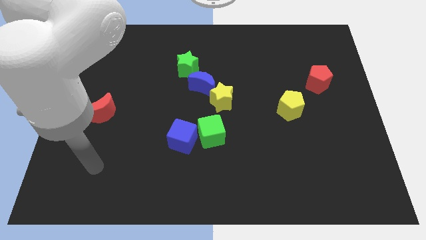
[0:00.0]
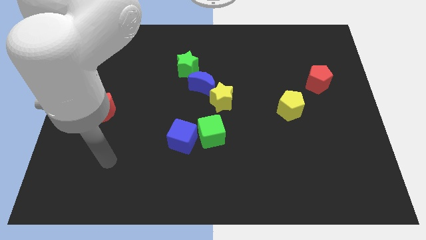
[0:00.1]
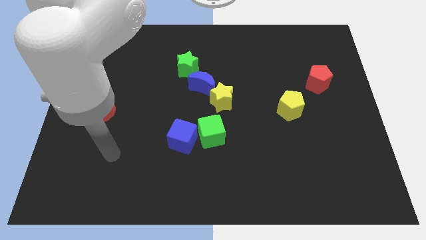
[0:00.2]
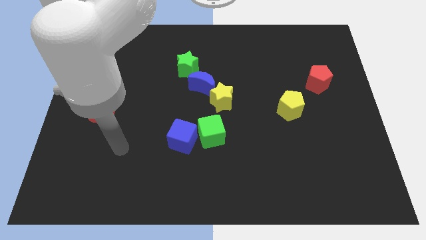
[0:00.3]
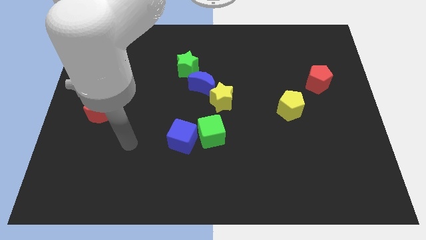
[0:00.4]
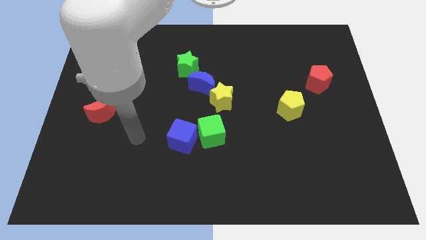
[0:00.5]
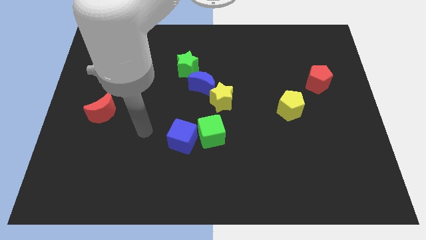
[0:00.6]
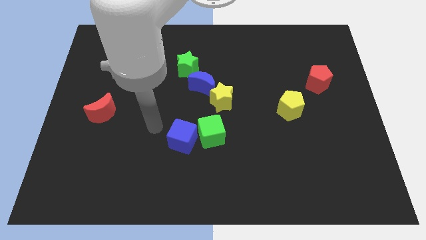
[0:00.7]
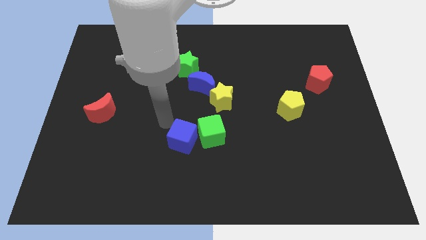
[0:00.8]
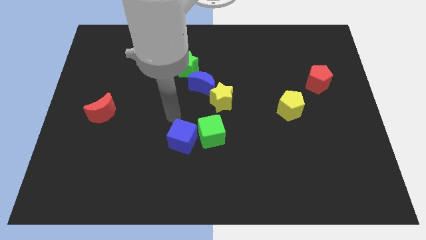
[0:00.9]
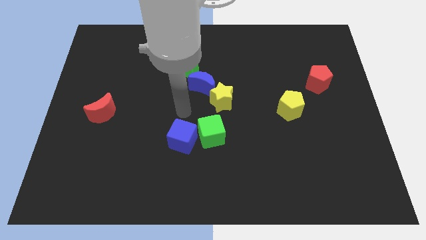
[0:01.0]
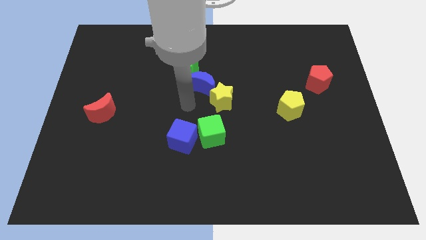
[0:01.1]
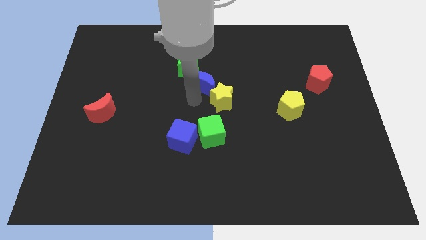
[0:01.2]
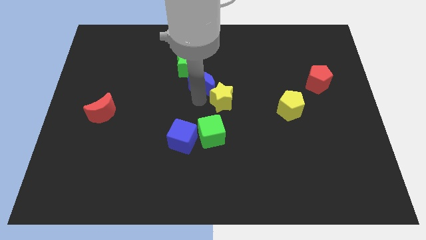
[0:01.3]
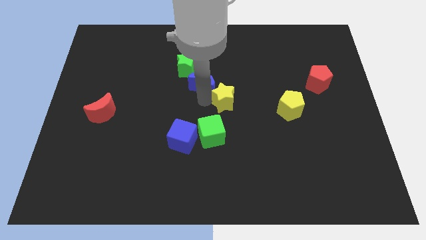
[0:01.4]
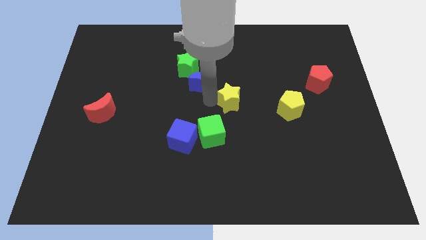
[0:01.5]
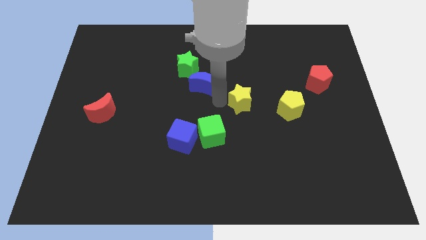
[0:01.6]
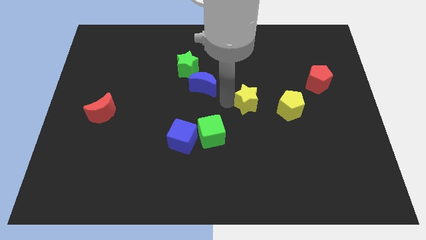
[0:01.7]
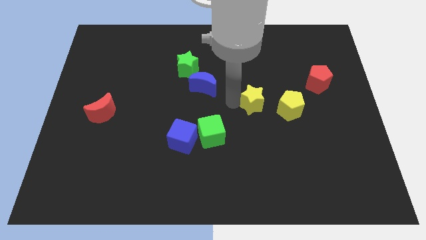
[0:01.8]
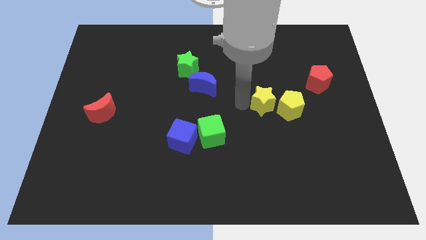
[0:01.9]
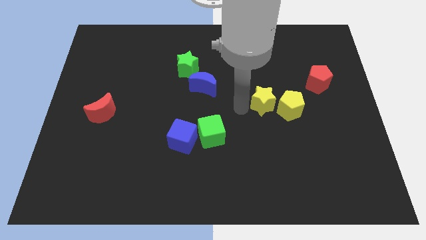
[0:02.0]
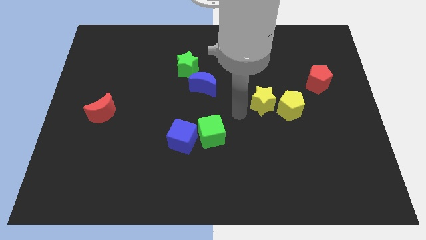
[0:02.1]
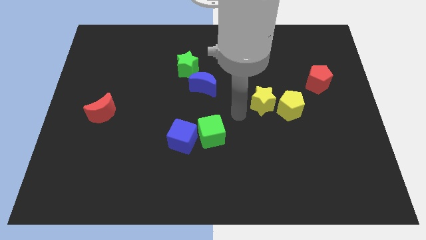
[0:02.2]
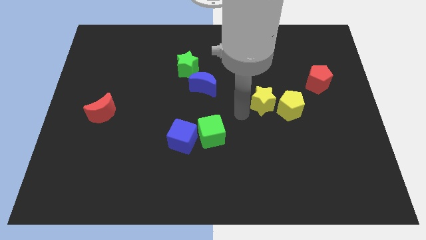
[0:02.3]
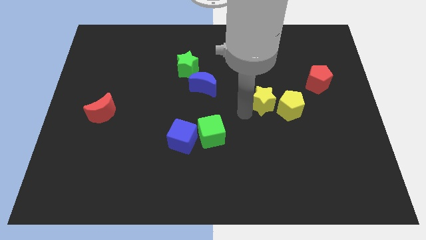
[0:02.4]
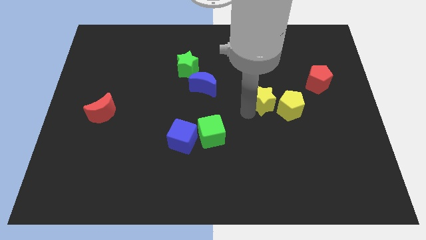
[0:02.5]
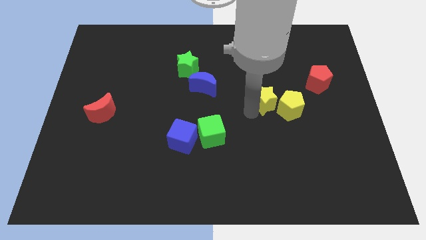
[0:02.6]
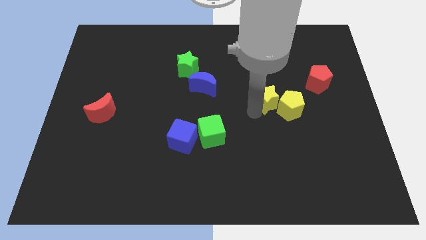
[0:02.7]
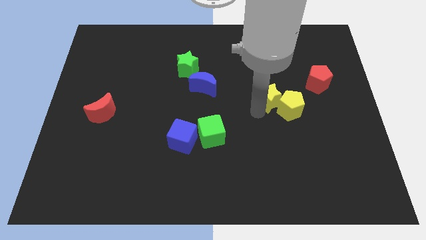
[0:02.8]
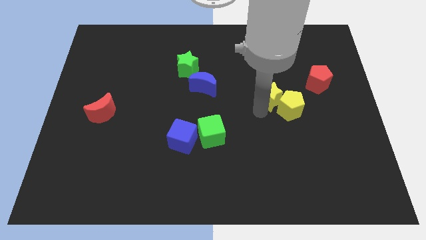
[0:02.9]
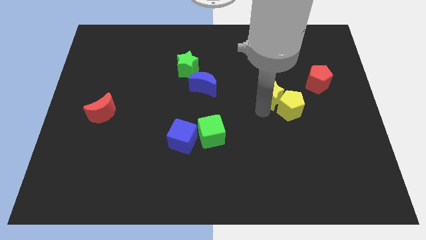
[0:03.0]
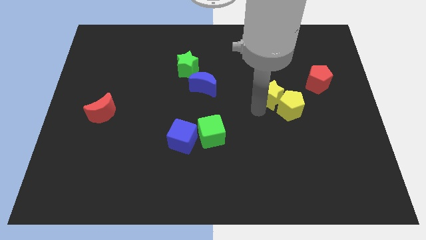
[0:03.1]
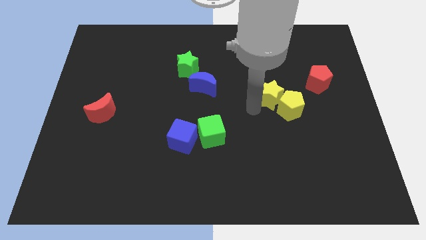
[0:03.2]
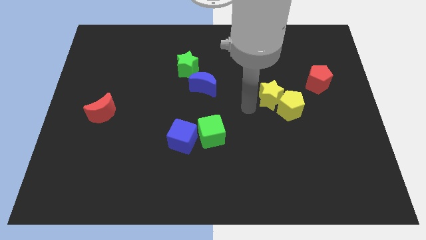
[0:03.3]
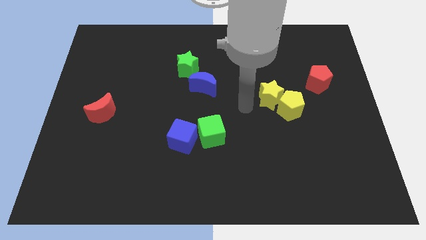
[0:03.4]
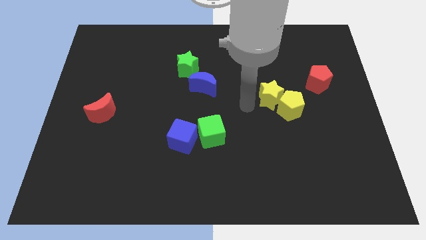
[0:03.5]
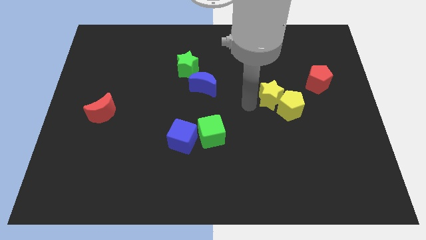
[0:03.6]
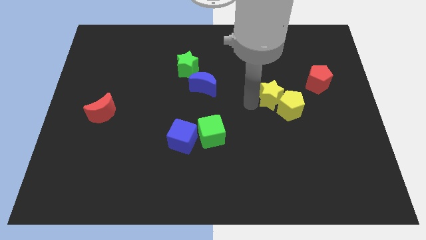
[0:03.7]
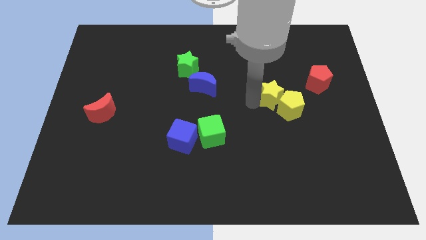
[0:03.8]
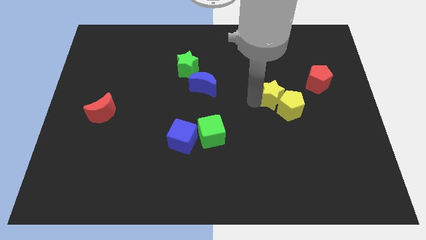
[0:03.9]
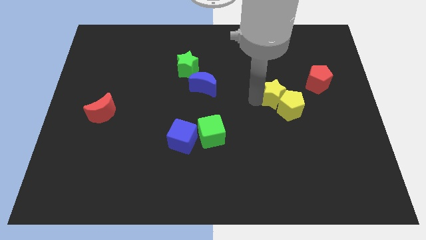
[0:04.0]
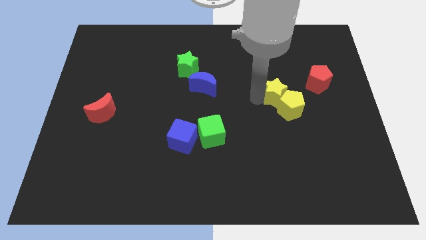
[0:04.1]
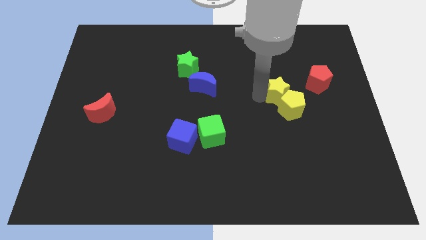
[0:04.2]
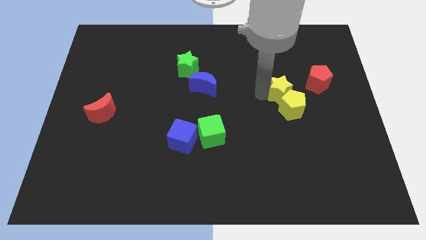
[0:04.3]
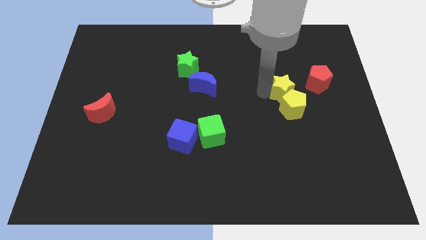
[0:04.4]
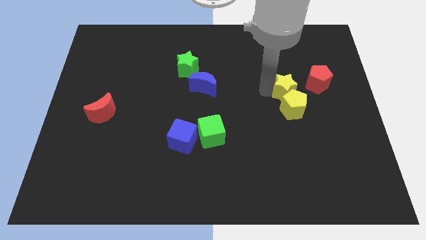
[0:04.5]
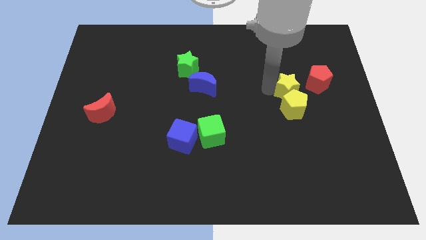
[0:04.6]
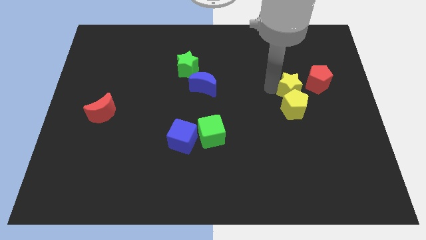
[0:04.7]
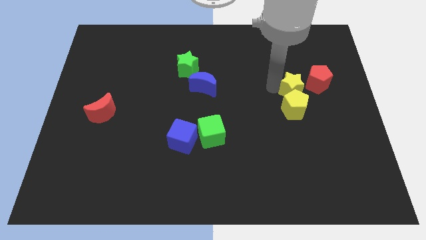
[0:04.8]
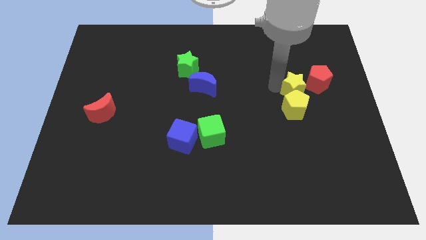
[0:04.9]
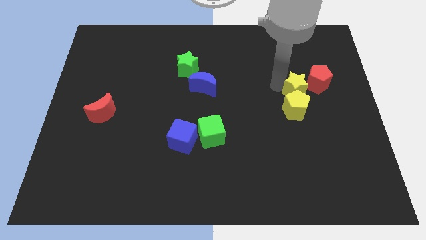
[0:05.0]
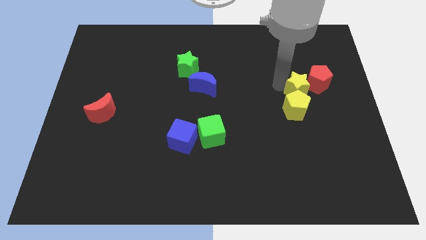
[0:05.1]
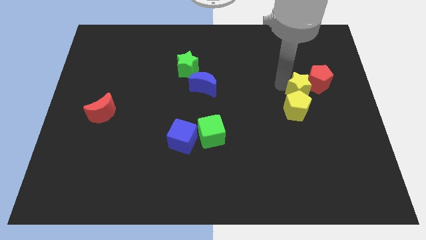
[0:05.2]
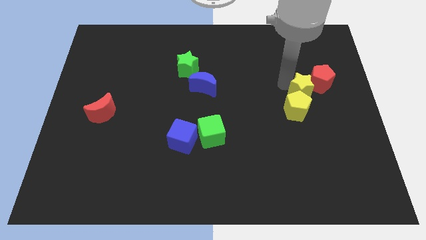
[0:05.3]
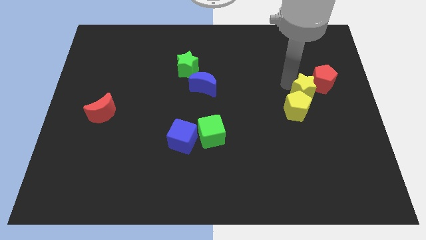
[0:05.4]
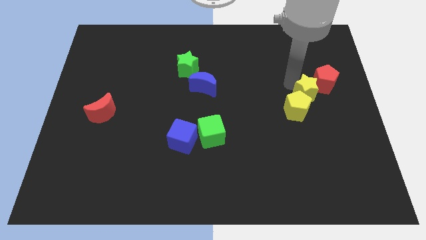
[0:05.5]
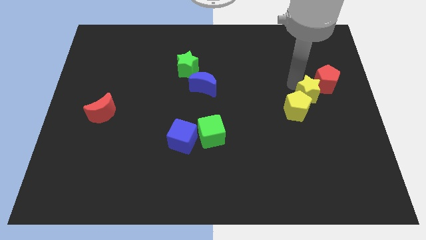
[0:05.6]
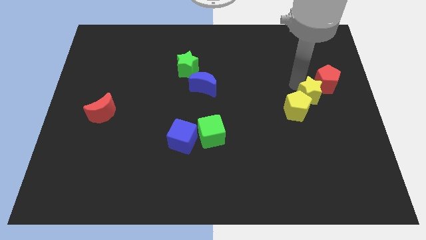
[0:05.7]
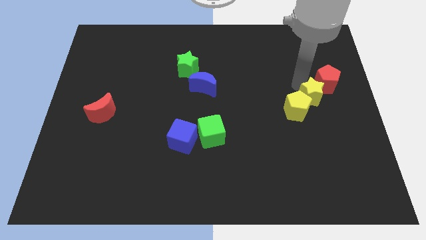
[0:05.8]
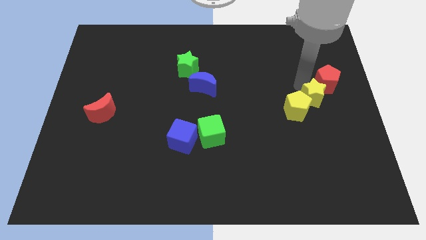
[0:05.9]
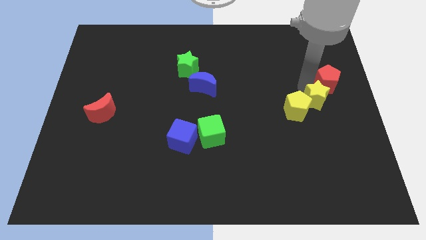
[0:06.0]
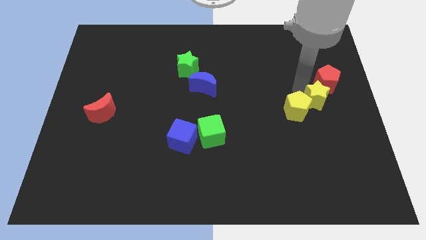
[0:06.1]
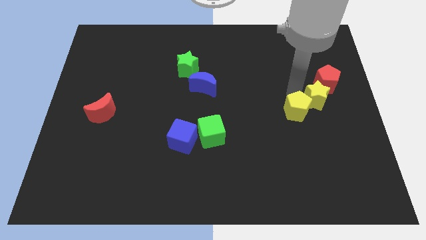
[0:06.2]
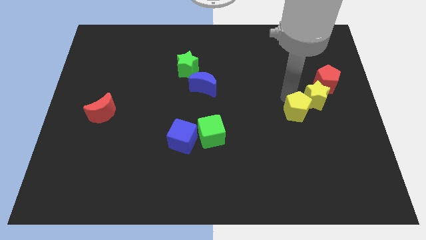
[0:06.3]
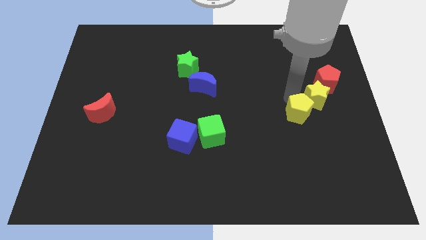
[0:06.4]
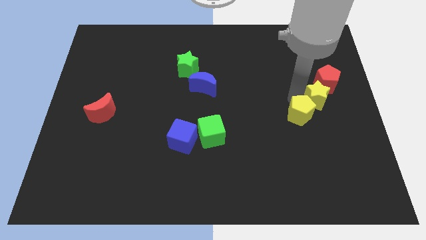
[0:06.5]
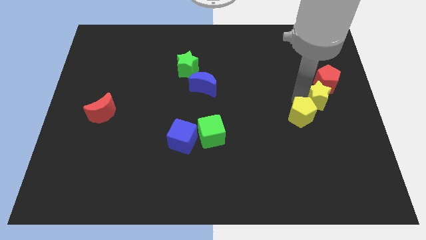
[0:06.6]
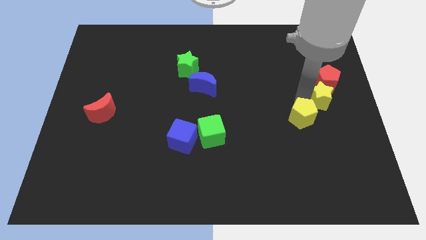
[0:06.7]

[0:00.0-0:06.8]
slide the yellow star to the right side of the board

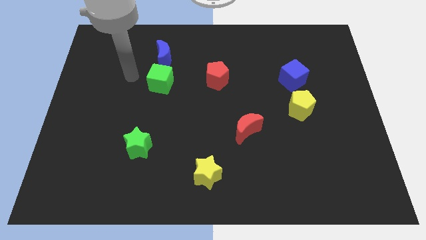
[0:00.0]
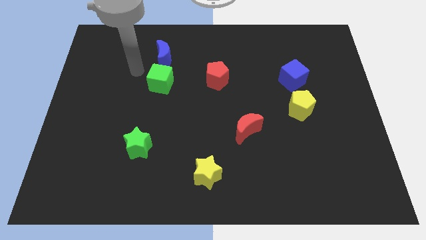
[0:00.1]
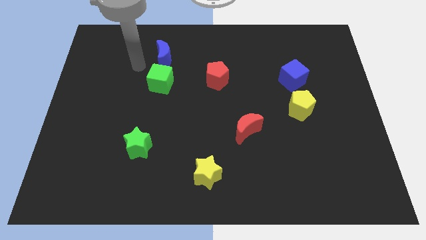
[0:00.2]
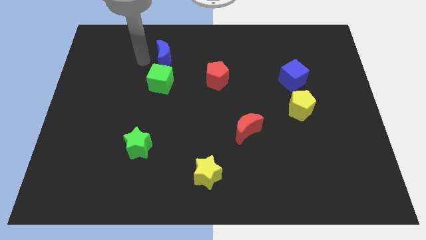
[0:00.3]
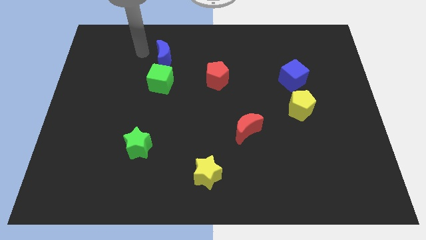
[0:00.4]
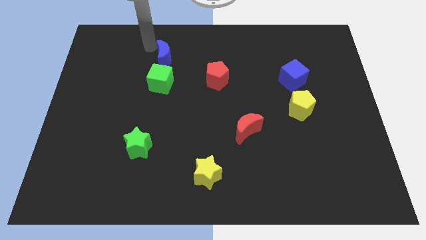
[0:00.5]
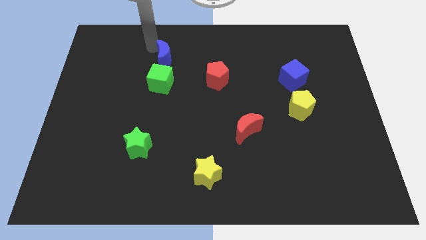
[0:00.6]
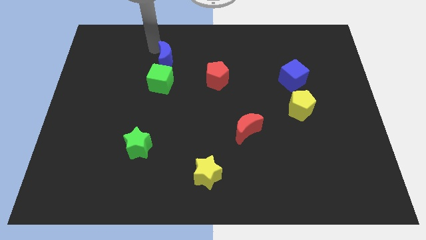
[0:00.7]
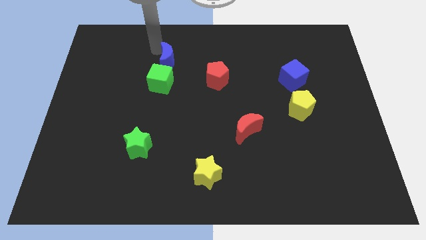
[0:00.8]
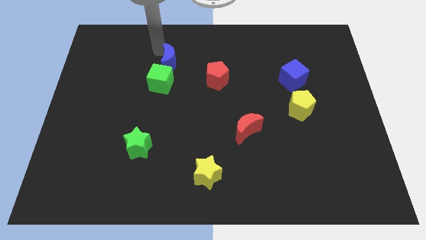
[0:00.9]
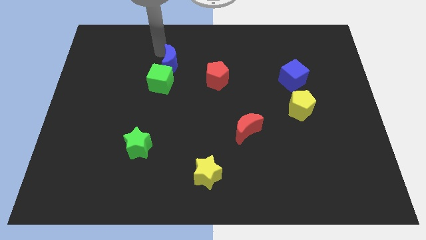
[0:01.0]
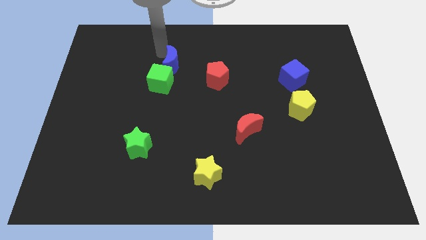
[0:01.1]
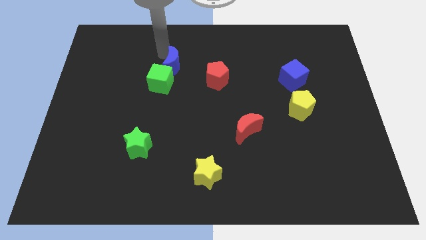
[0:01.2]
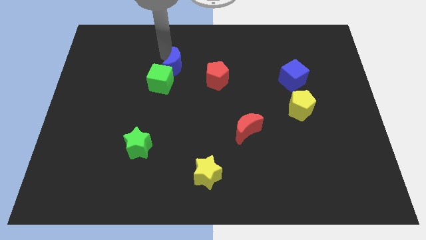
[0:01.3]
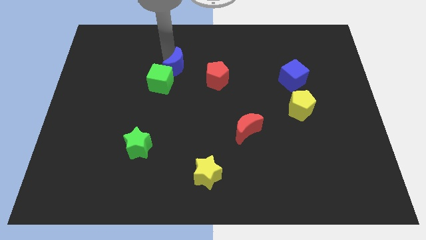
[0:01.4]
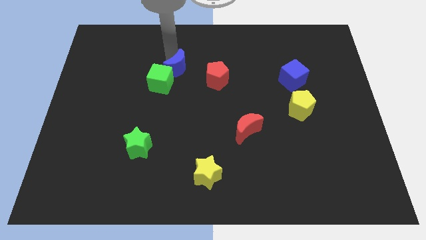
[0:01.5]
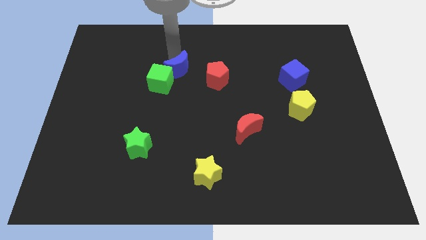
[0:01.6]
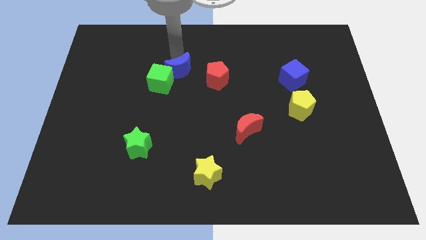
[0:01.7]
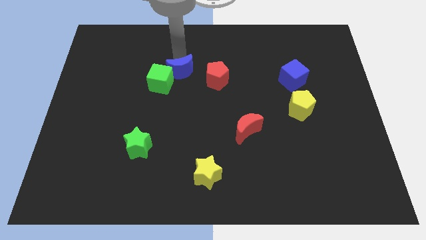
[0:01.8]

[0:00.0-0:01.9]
push the blue moon to the middle
